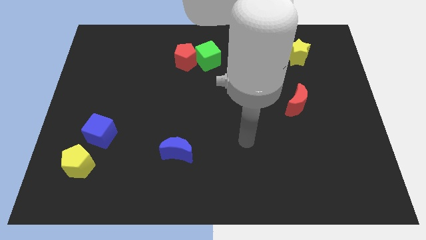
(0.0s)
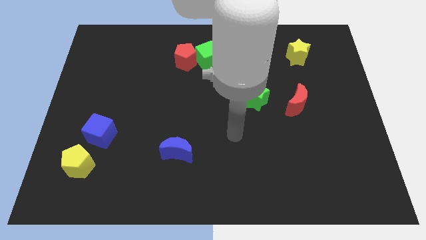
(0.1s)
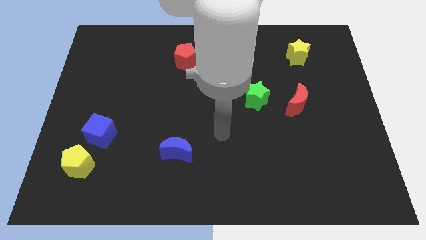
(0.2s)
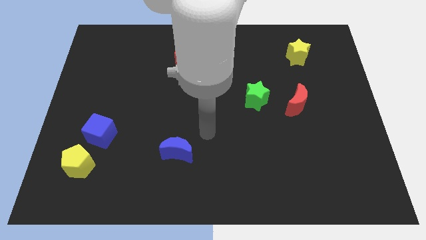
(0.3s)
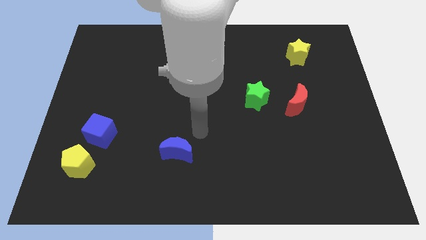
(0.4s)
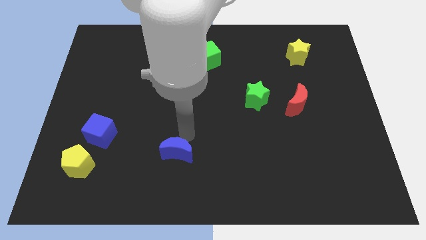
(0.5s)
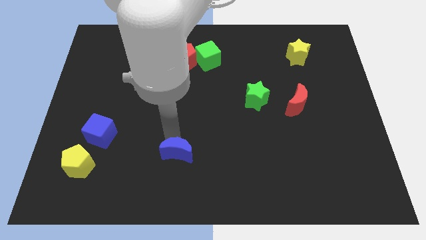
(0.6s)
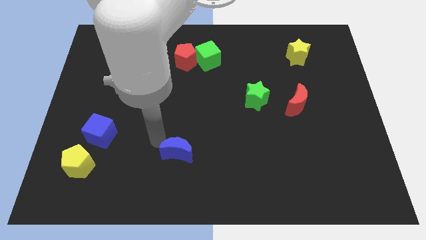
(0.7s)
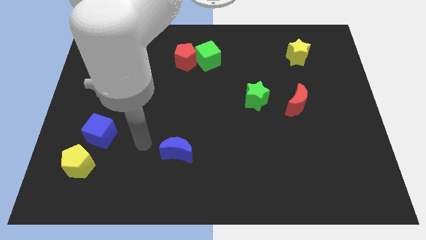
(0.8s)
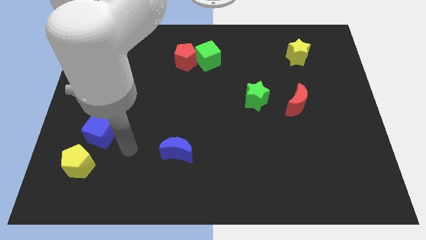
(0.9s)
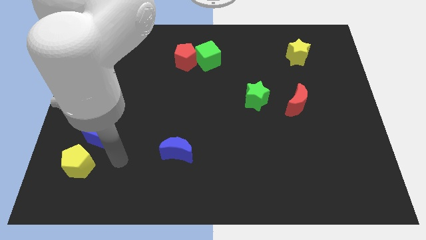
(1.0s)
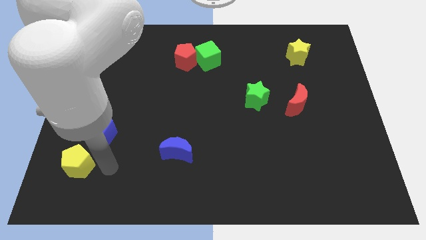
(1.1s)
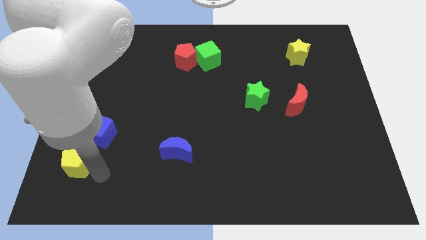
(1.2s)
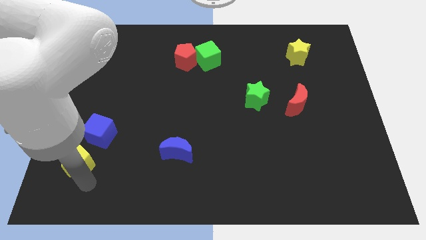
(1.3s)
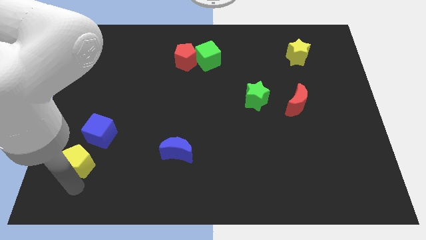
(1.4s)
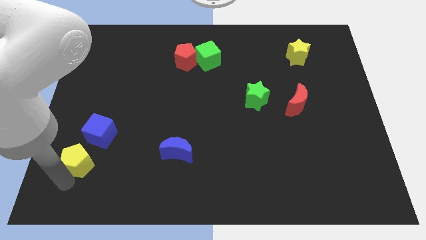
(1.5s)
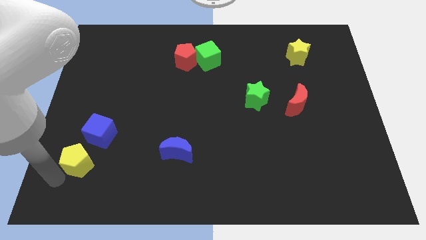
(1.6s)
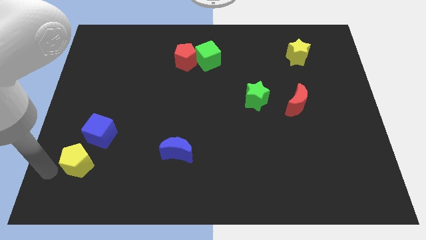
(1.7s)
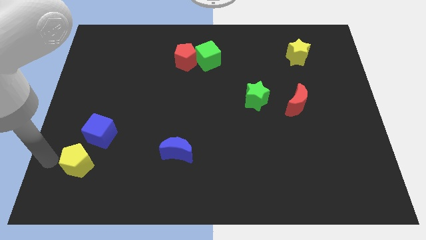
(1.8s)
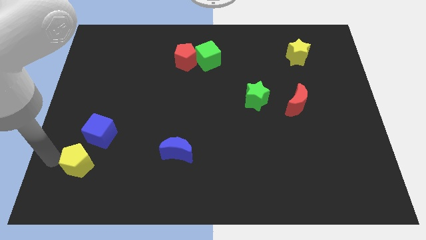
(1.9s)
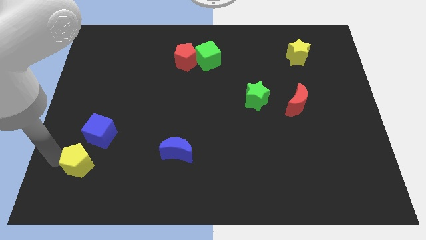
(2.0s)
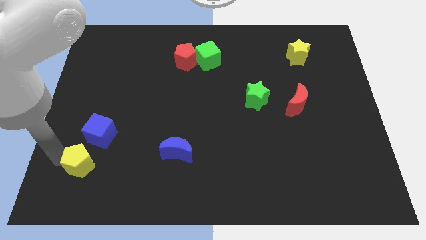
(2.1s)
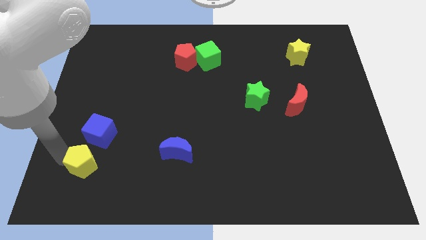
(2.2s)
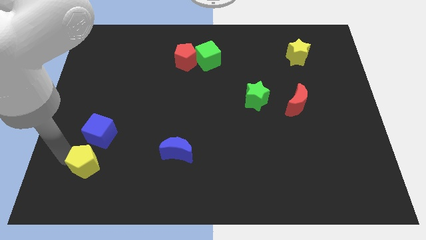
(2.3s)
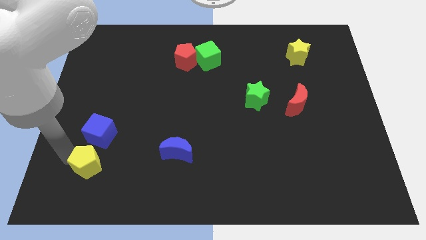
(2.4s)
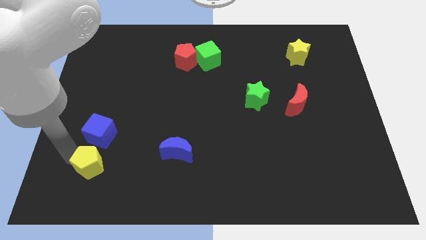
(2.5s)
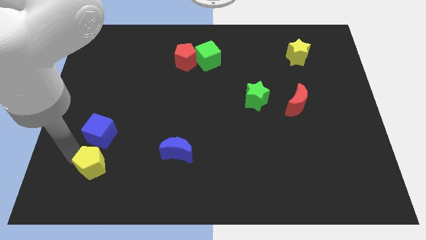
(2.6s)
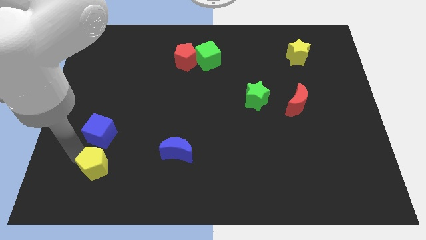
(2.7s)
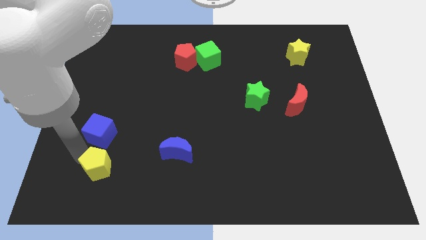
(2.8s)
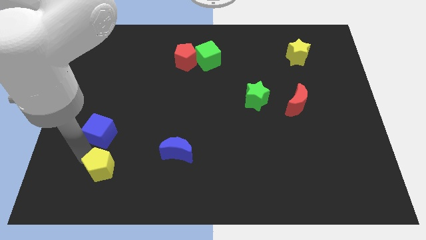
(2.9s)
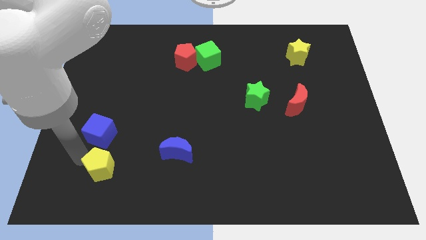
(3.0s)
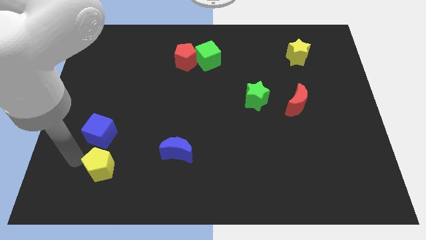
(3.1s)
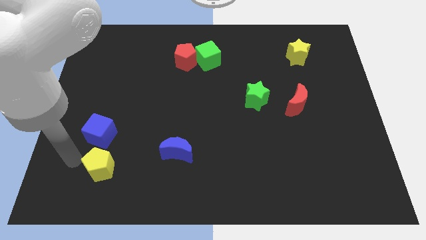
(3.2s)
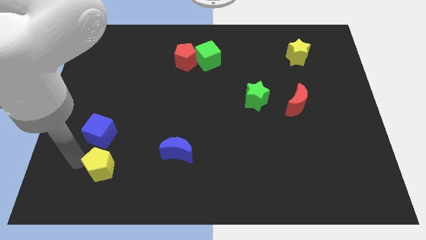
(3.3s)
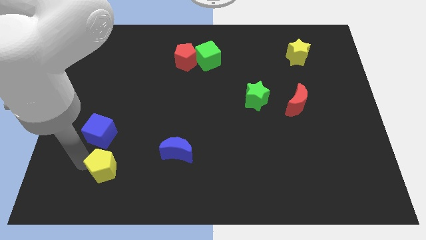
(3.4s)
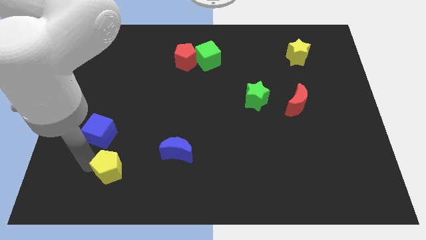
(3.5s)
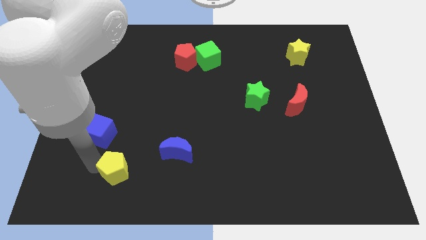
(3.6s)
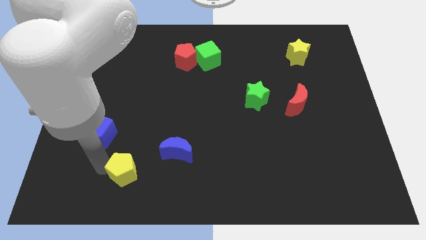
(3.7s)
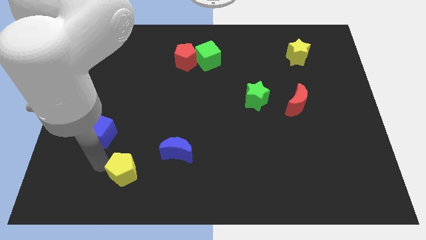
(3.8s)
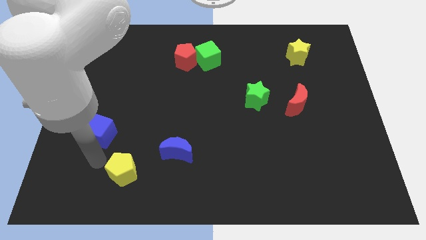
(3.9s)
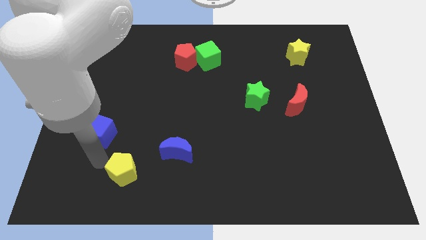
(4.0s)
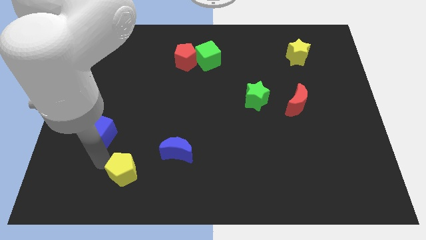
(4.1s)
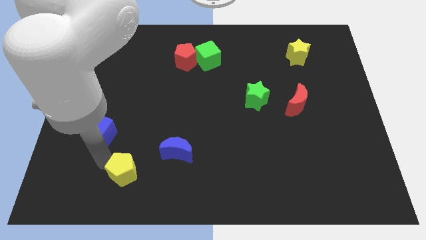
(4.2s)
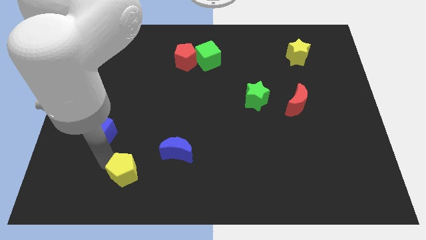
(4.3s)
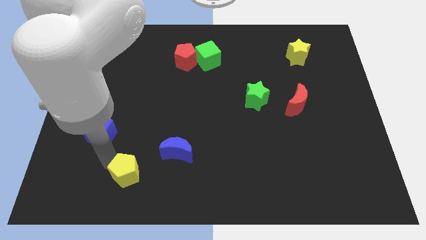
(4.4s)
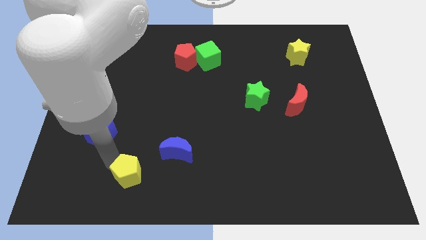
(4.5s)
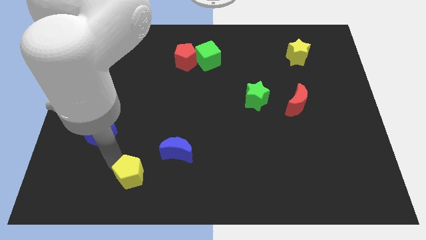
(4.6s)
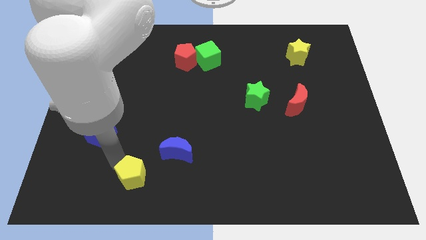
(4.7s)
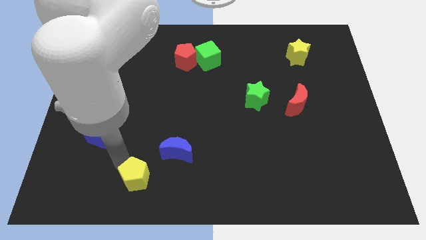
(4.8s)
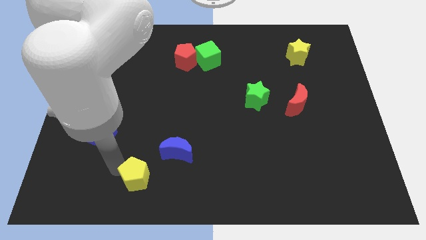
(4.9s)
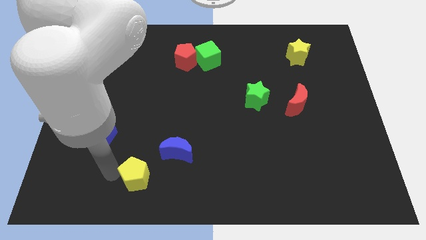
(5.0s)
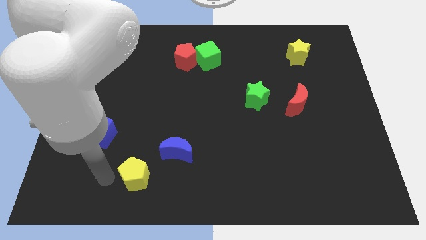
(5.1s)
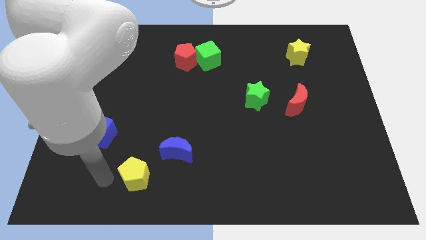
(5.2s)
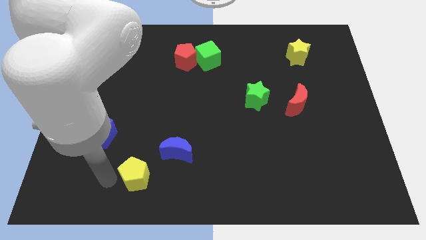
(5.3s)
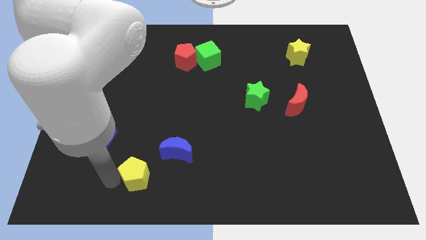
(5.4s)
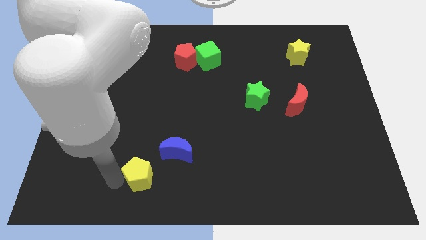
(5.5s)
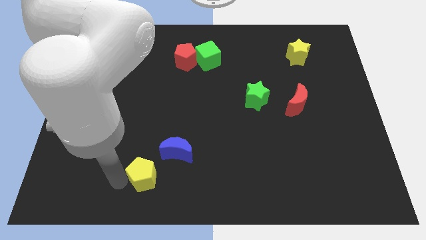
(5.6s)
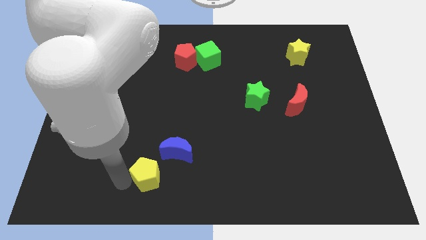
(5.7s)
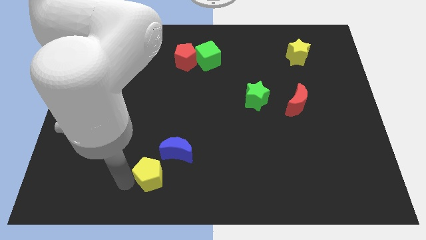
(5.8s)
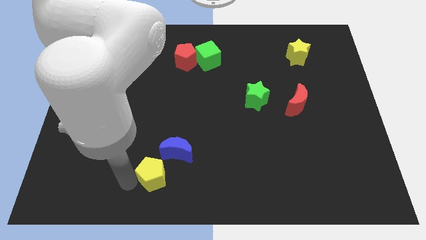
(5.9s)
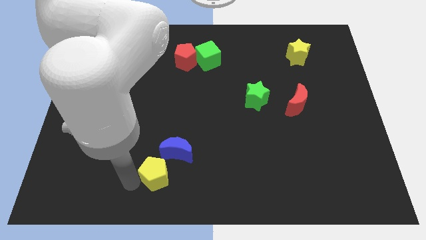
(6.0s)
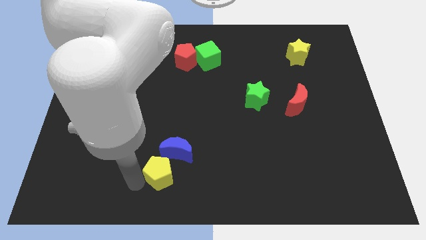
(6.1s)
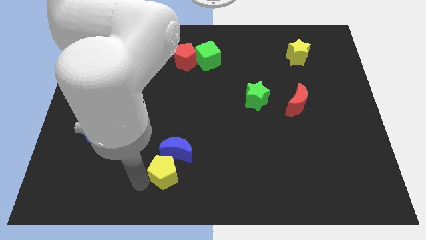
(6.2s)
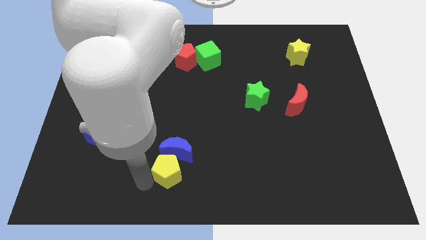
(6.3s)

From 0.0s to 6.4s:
move the yellow pentagon diagonally down and to the right of the blue moon

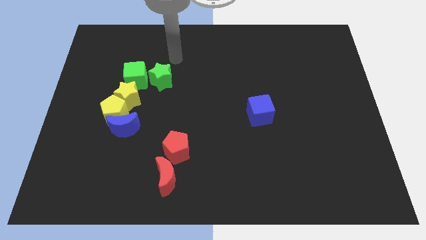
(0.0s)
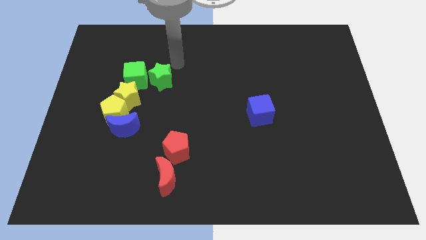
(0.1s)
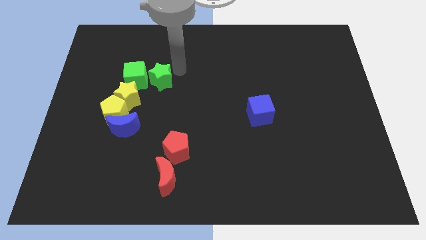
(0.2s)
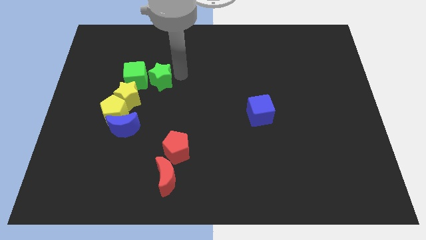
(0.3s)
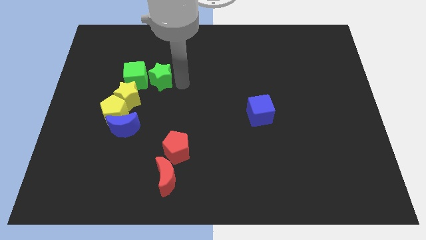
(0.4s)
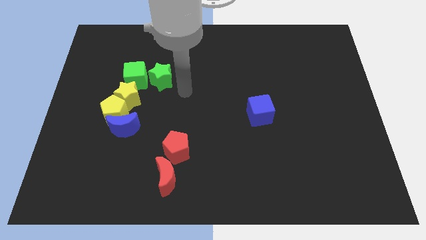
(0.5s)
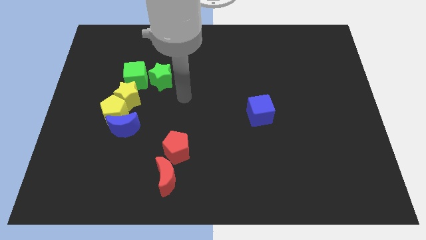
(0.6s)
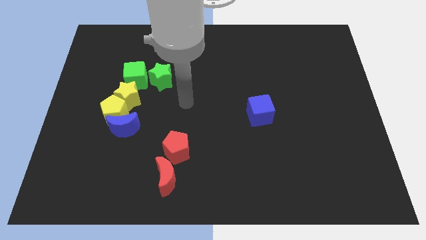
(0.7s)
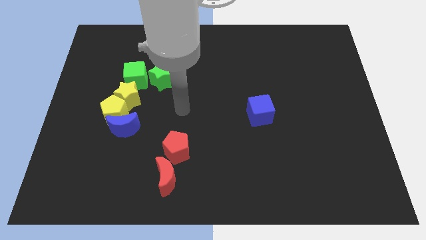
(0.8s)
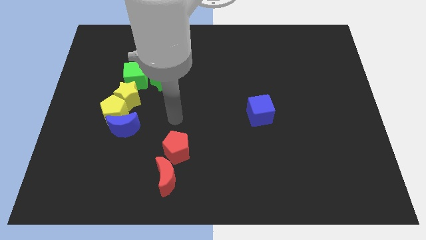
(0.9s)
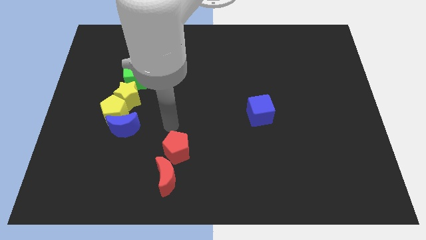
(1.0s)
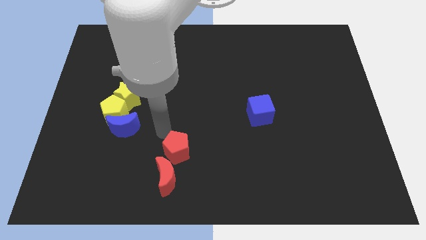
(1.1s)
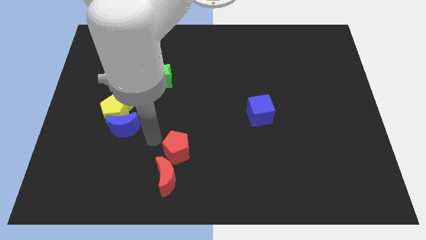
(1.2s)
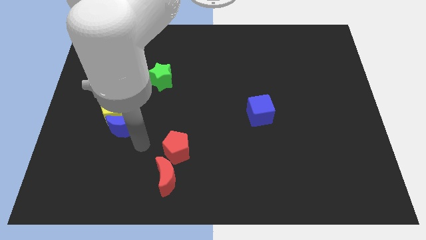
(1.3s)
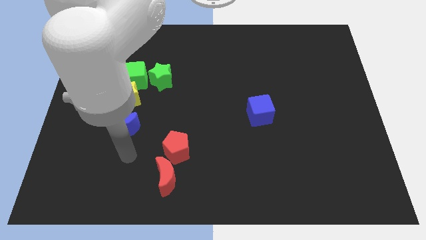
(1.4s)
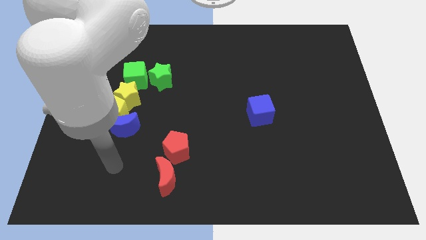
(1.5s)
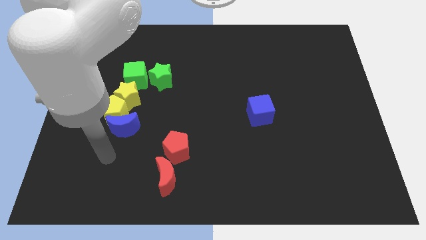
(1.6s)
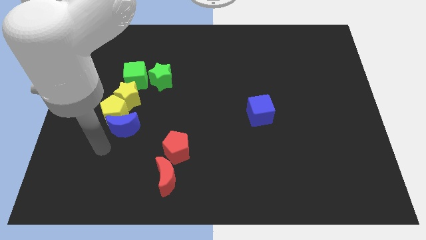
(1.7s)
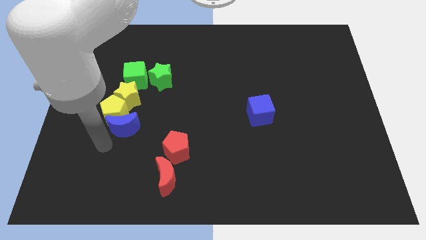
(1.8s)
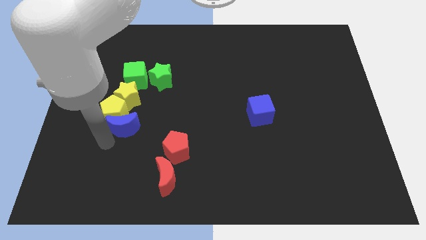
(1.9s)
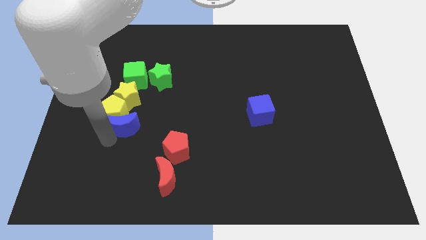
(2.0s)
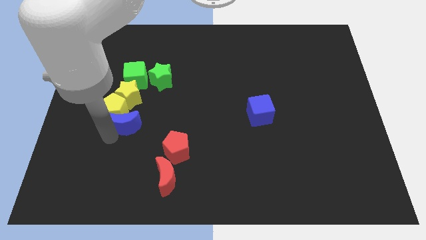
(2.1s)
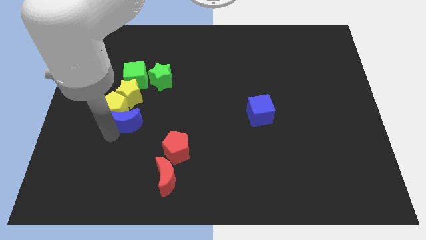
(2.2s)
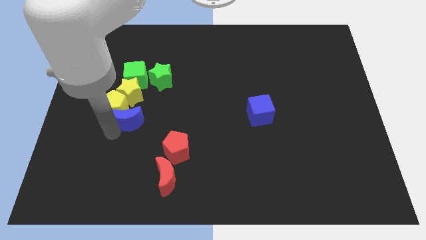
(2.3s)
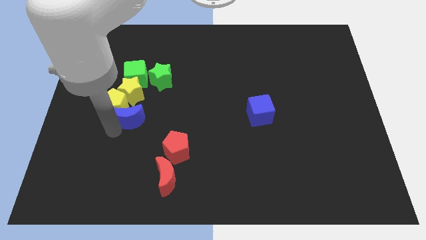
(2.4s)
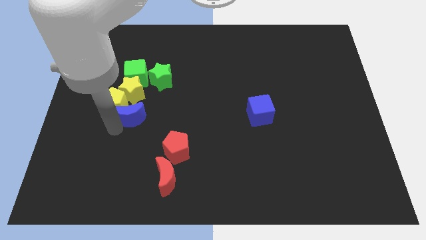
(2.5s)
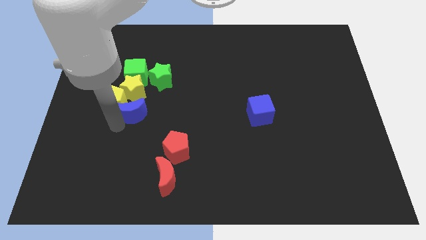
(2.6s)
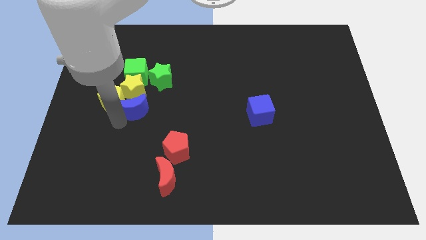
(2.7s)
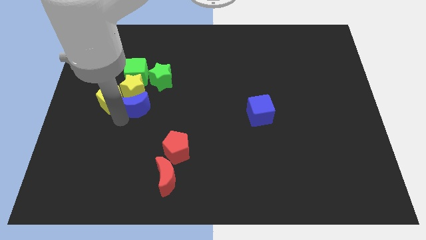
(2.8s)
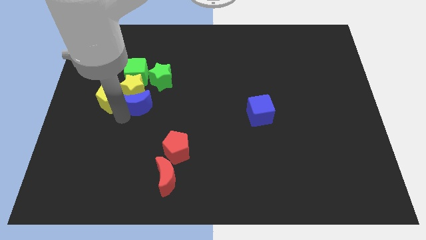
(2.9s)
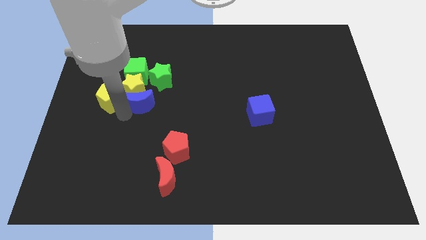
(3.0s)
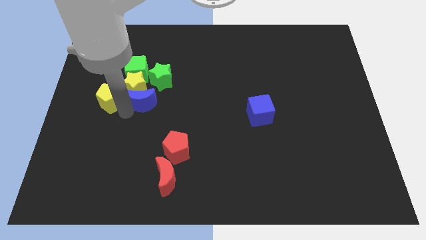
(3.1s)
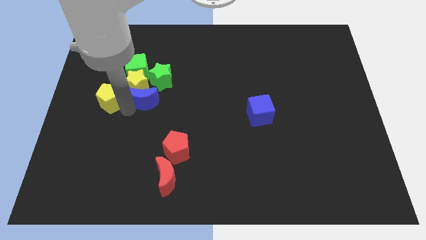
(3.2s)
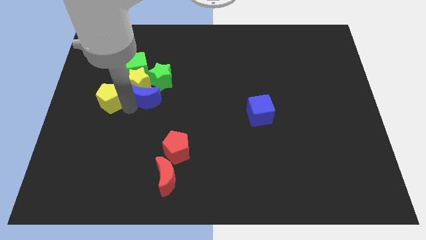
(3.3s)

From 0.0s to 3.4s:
slide the blue moon to the bottom right of the green cube
